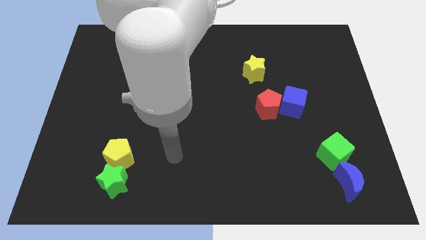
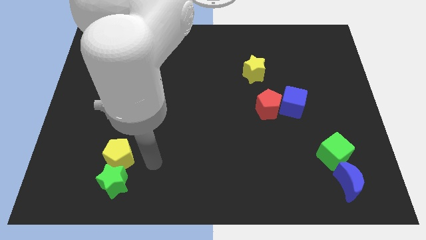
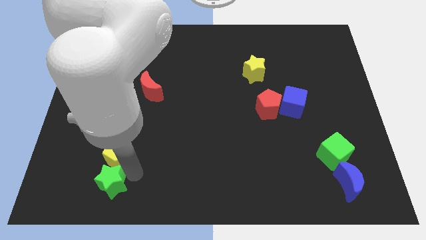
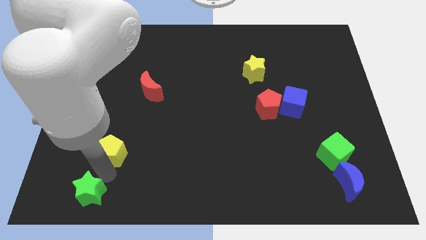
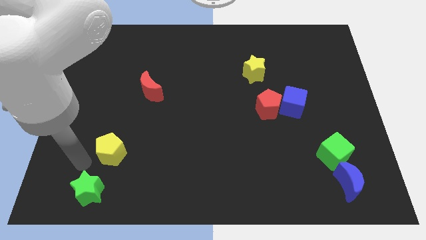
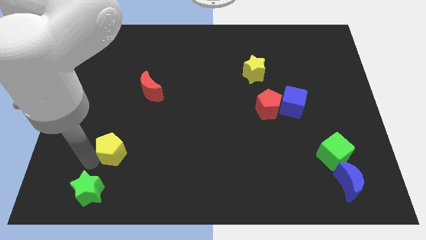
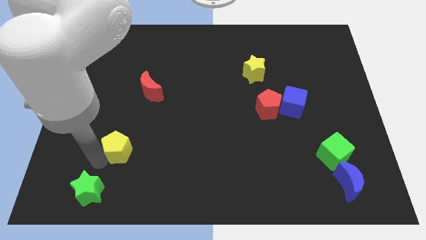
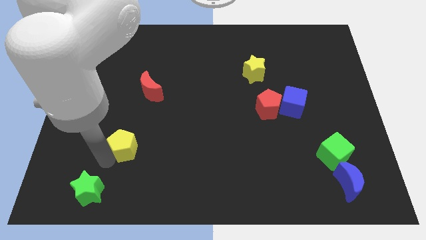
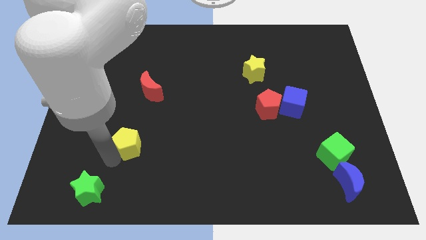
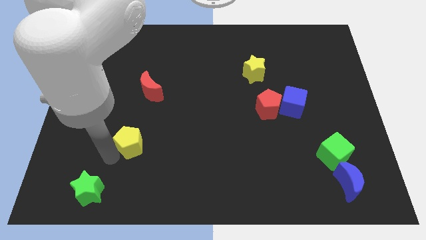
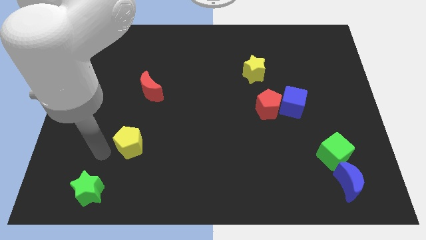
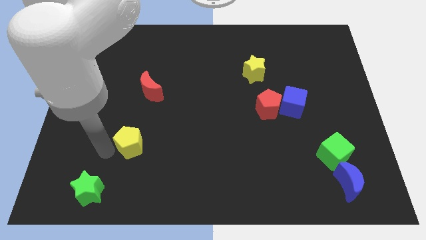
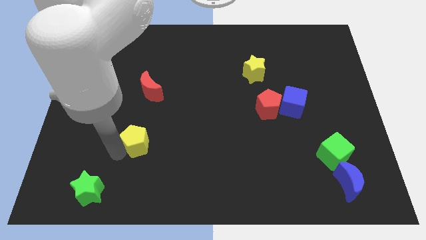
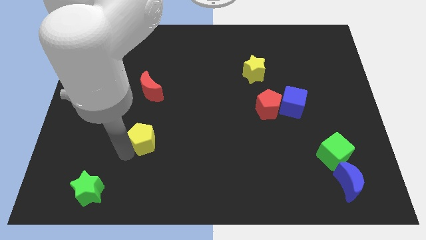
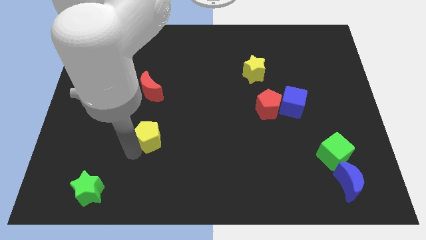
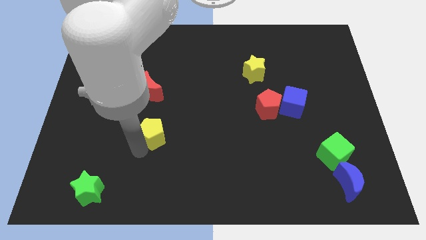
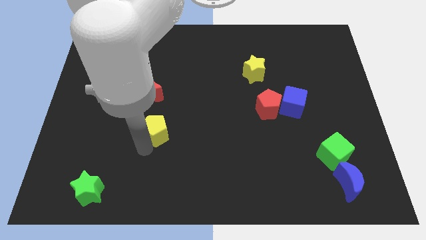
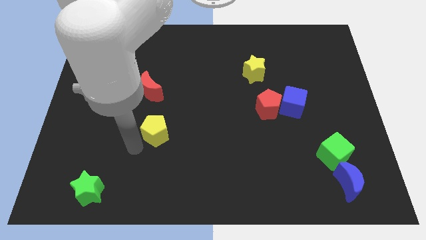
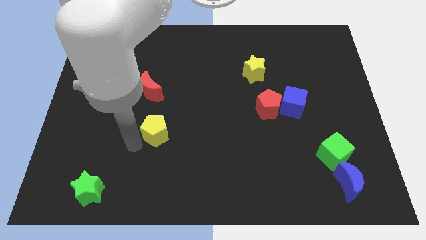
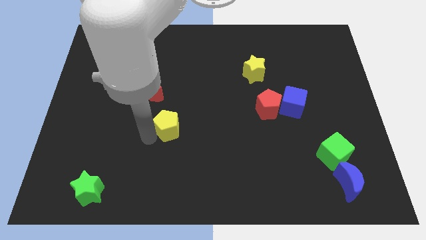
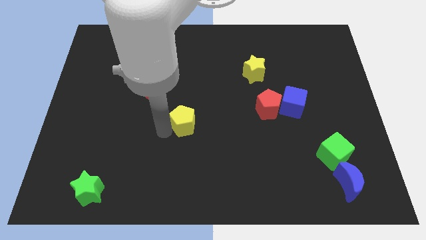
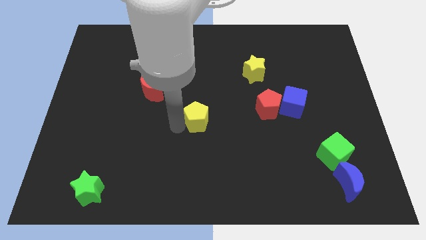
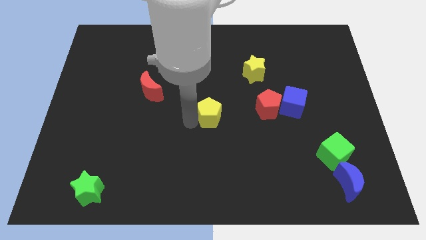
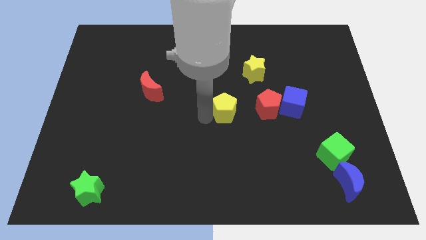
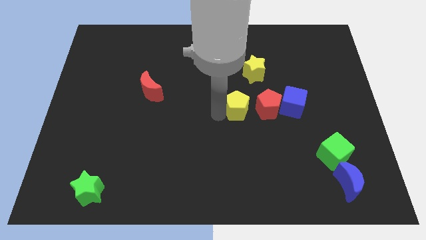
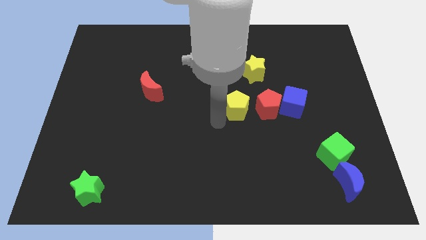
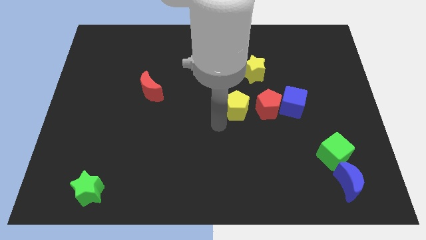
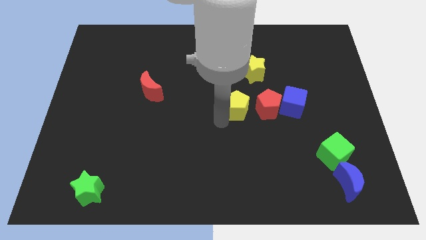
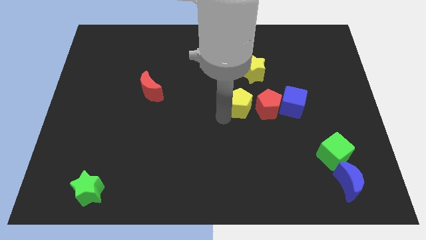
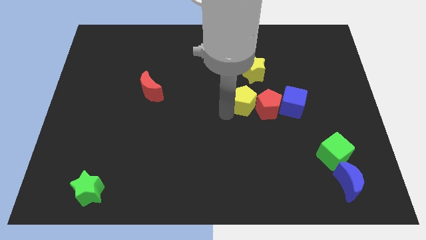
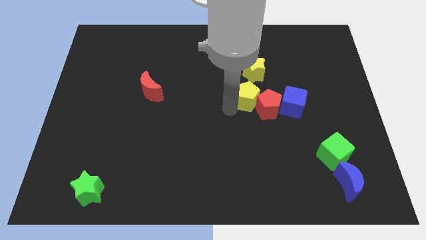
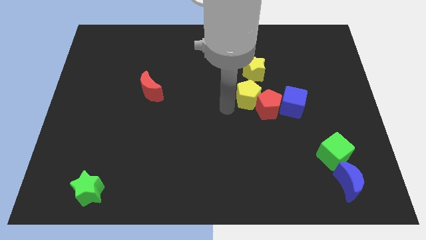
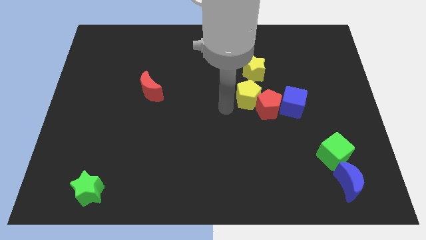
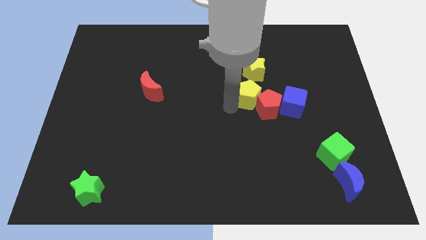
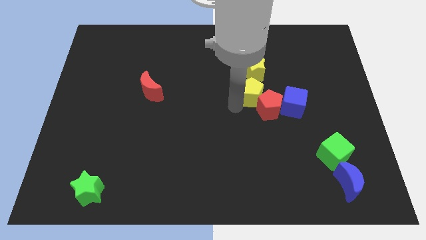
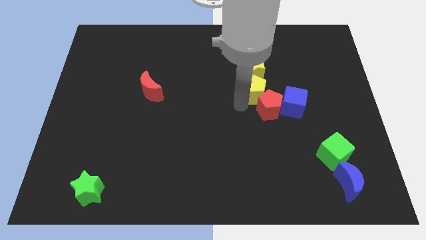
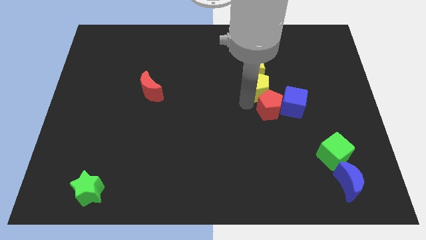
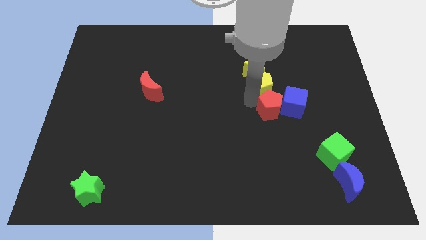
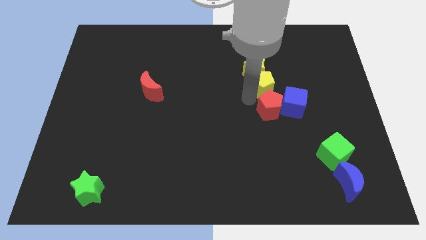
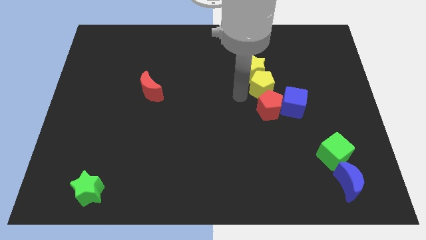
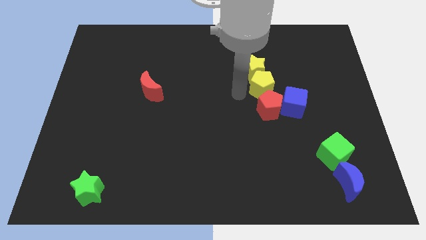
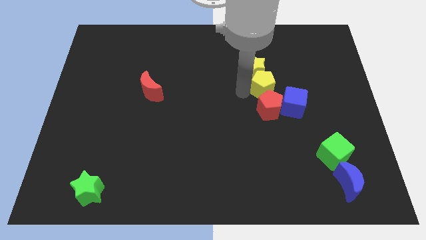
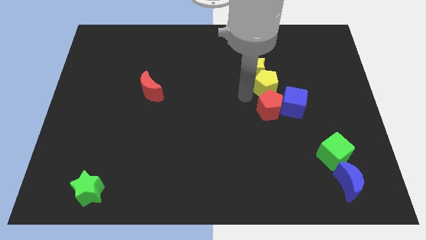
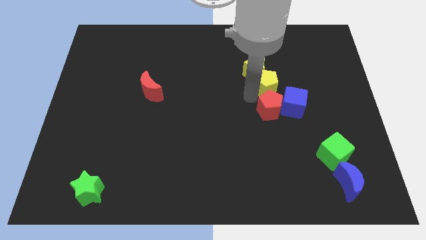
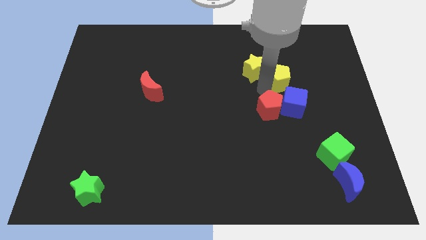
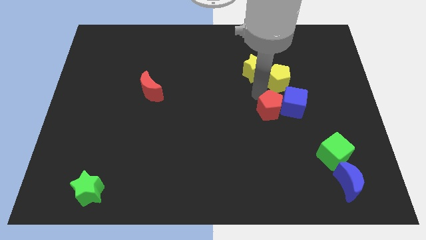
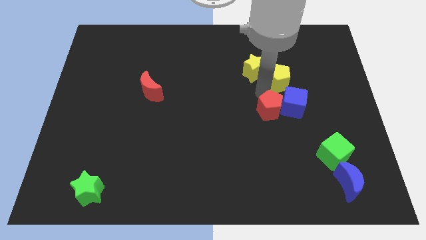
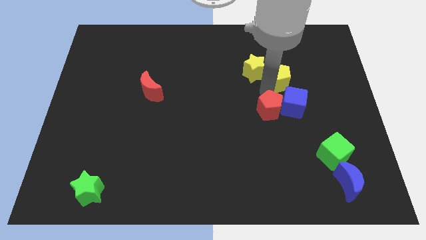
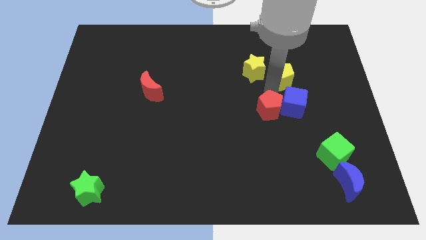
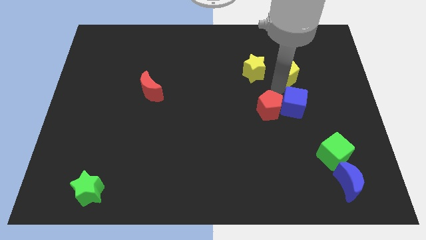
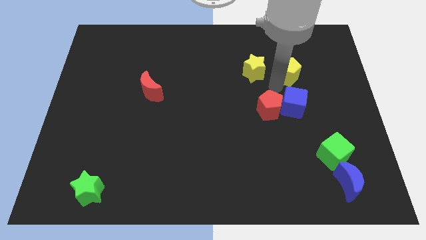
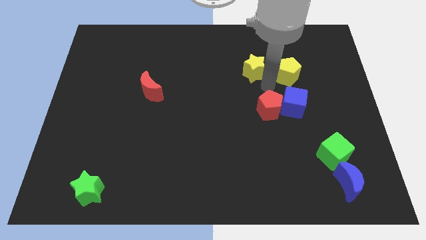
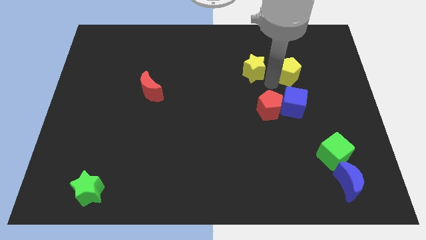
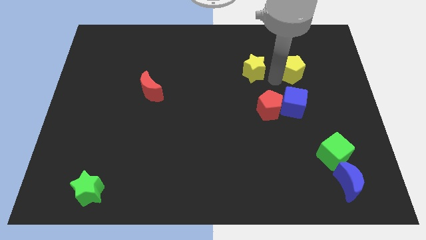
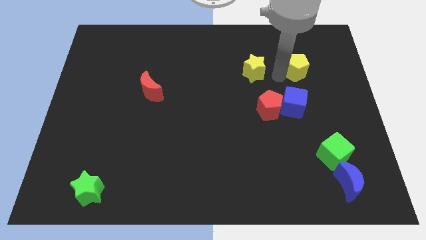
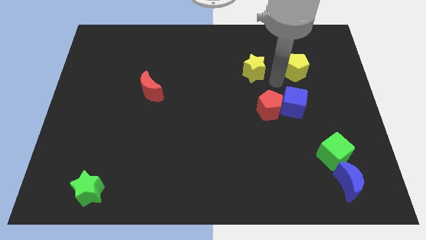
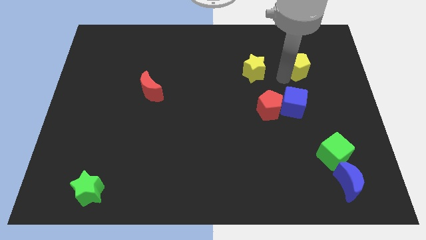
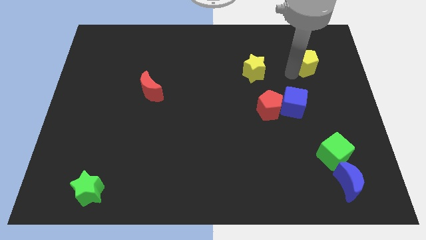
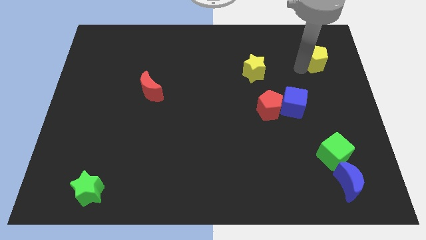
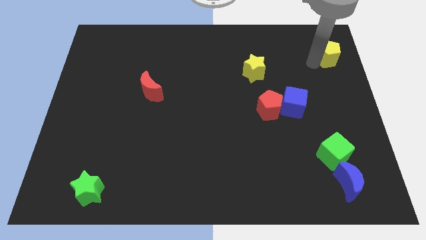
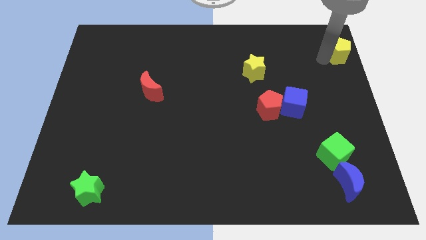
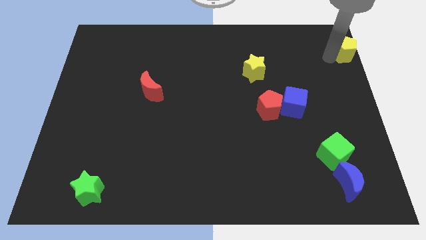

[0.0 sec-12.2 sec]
push the yellow pentagon to the top right of the board
